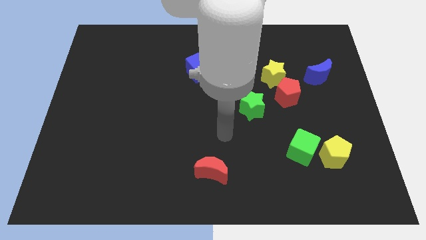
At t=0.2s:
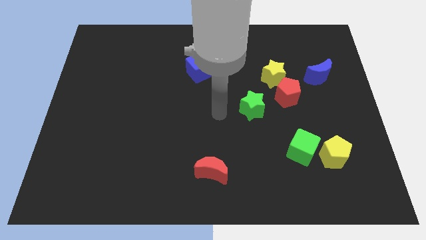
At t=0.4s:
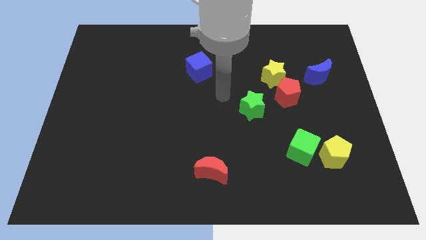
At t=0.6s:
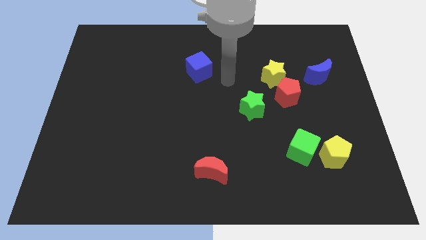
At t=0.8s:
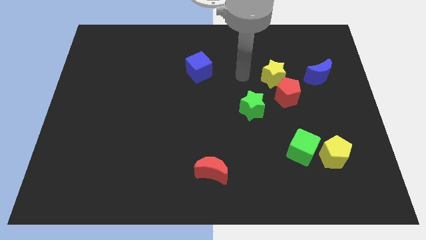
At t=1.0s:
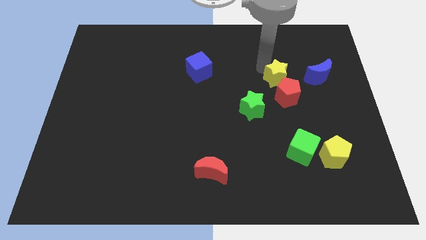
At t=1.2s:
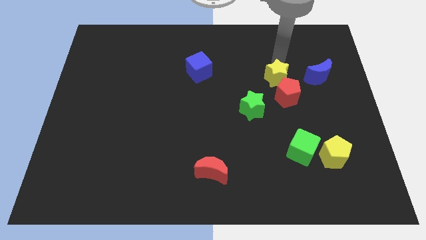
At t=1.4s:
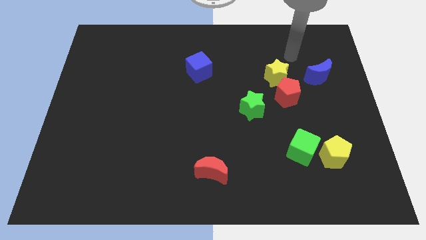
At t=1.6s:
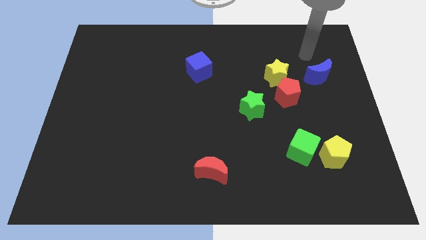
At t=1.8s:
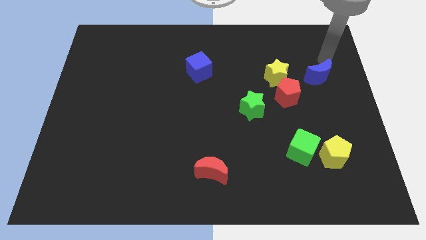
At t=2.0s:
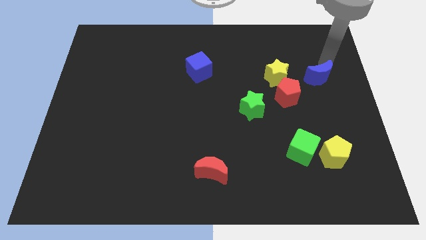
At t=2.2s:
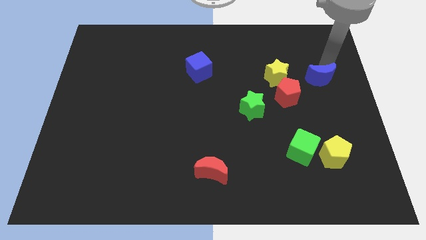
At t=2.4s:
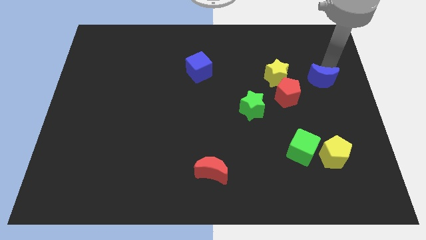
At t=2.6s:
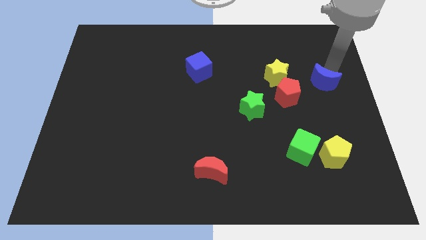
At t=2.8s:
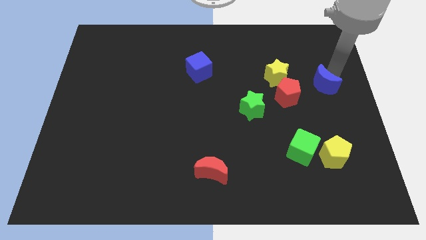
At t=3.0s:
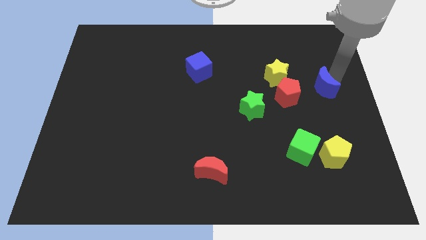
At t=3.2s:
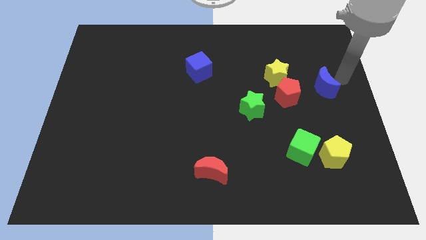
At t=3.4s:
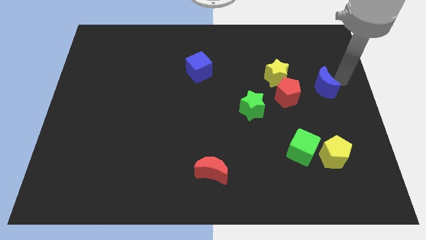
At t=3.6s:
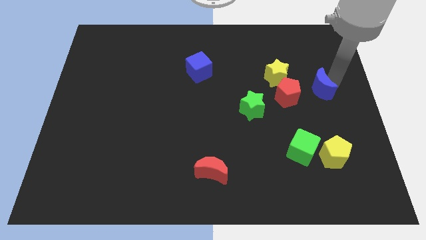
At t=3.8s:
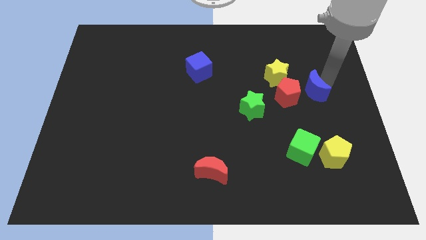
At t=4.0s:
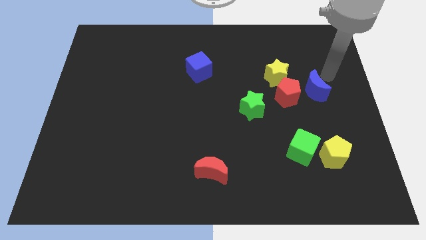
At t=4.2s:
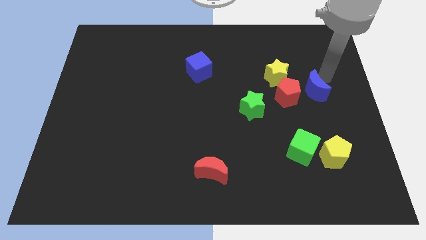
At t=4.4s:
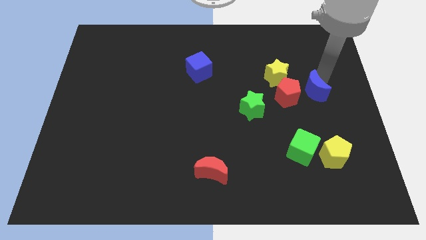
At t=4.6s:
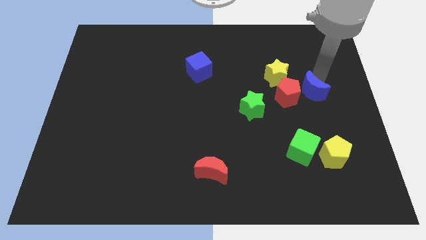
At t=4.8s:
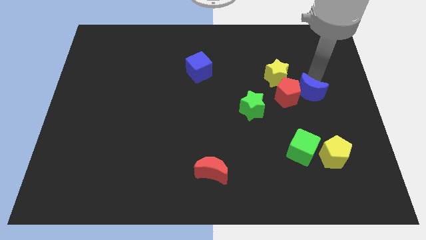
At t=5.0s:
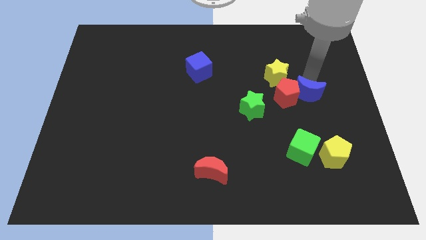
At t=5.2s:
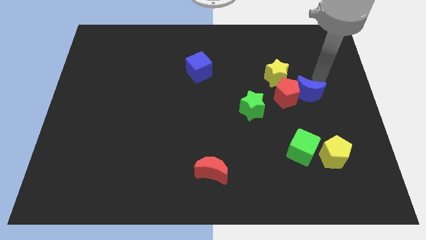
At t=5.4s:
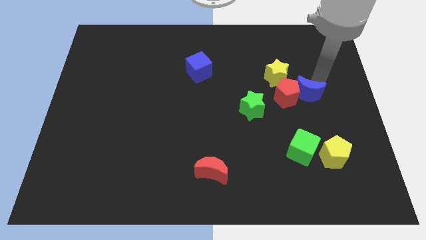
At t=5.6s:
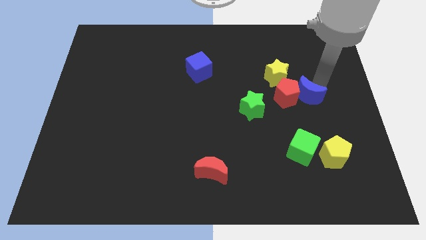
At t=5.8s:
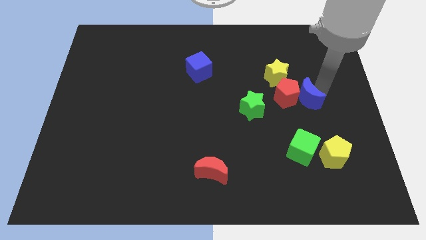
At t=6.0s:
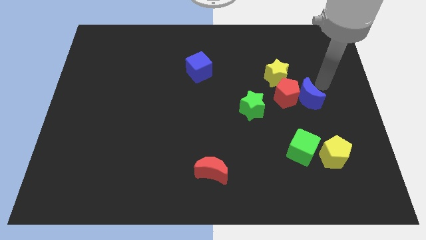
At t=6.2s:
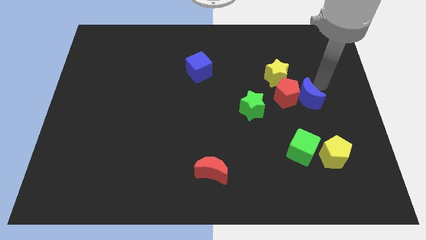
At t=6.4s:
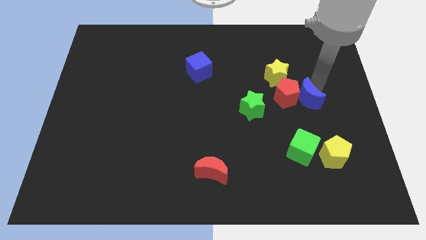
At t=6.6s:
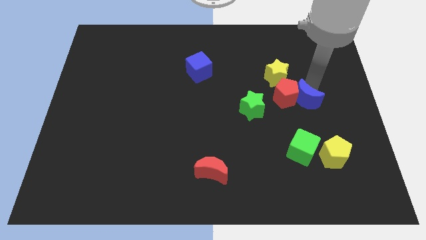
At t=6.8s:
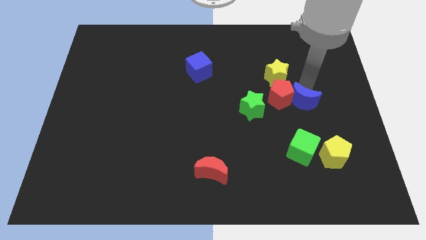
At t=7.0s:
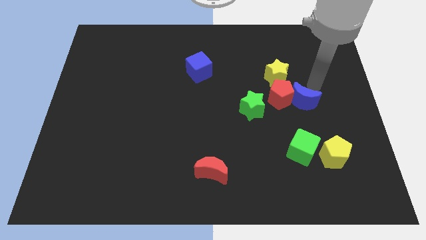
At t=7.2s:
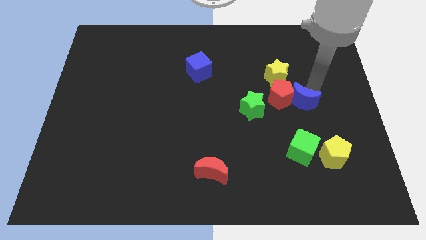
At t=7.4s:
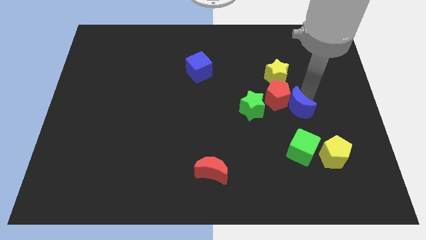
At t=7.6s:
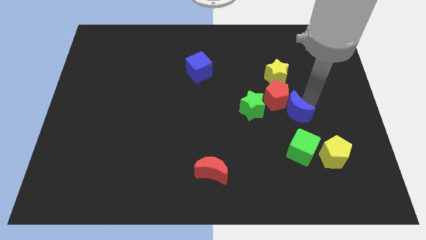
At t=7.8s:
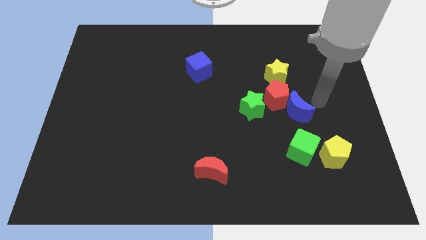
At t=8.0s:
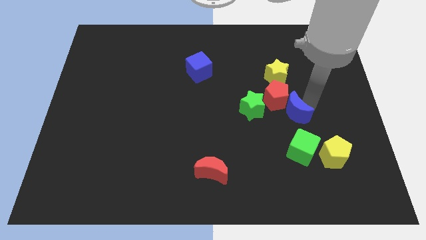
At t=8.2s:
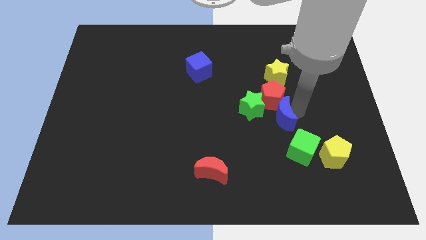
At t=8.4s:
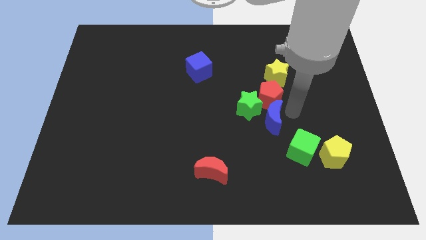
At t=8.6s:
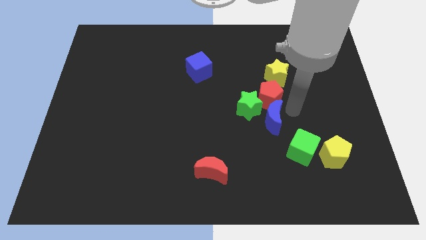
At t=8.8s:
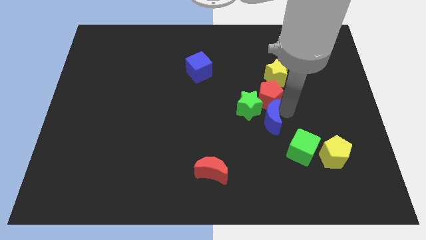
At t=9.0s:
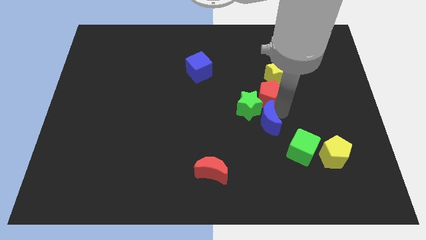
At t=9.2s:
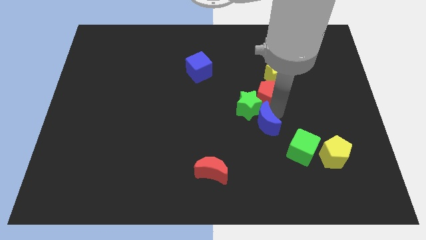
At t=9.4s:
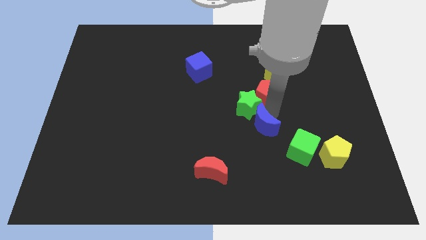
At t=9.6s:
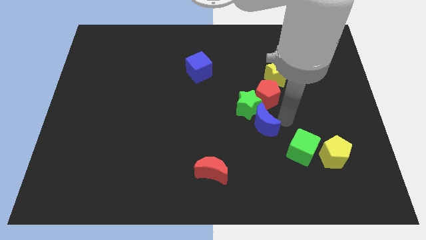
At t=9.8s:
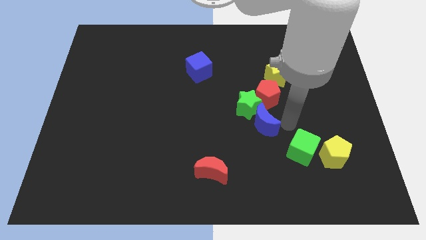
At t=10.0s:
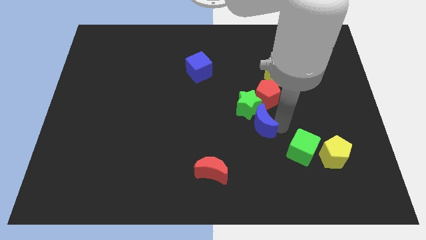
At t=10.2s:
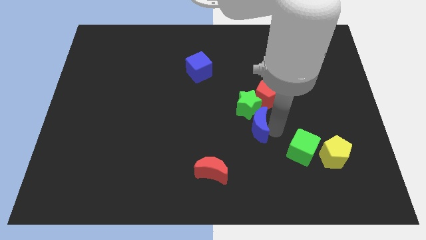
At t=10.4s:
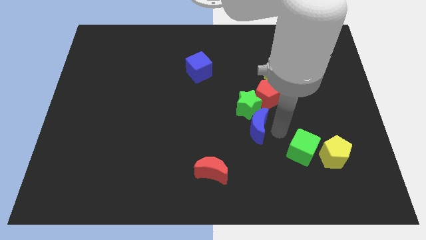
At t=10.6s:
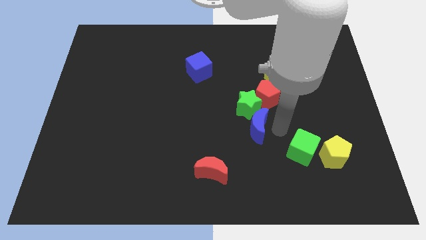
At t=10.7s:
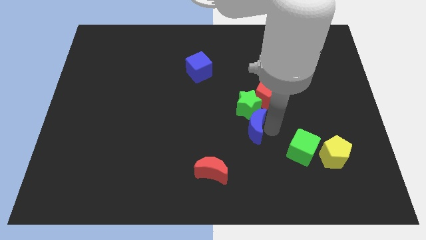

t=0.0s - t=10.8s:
put the blue moon diagonally down and to the left of the green star

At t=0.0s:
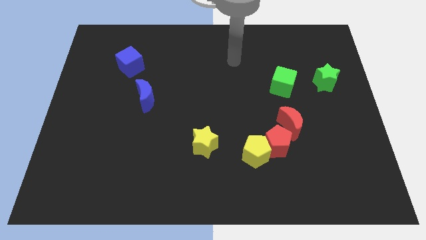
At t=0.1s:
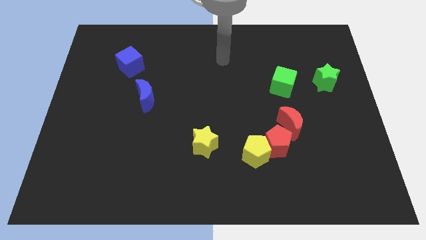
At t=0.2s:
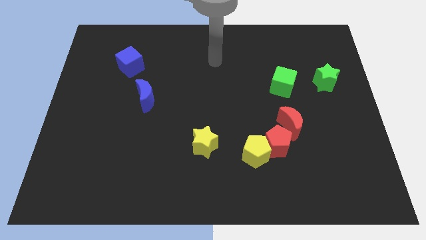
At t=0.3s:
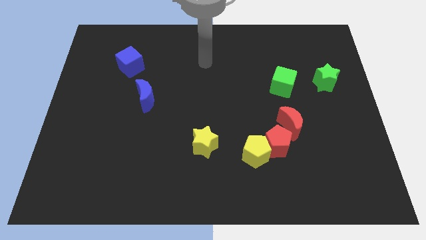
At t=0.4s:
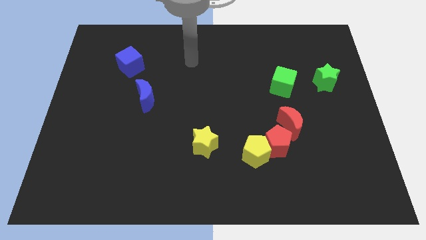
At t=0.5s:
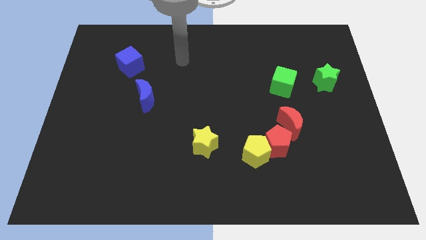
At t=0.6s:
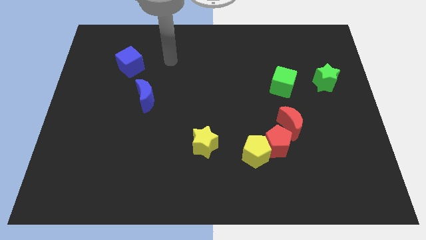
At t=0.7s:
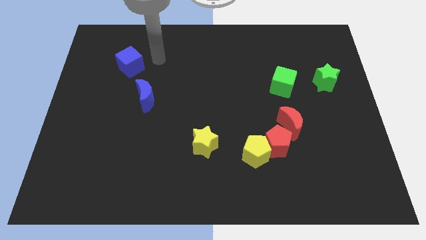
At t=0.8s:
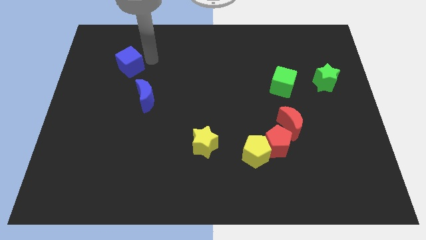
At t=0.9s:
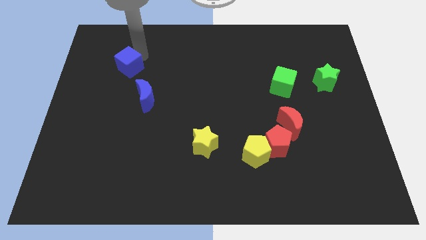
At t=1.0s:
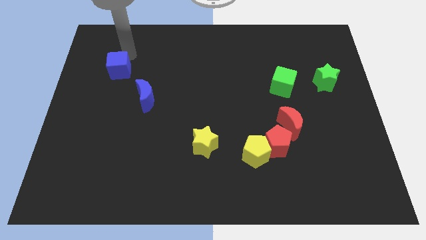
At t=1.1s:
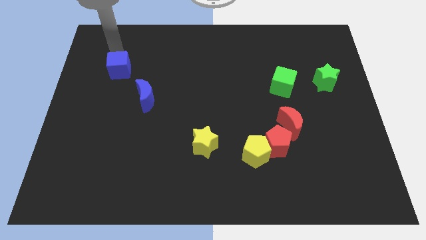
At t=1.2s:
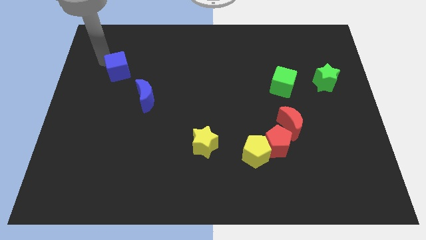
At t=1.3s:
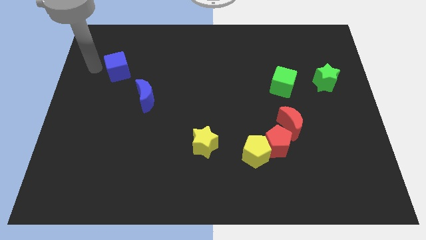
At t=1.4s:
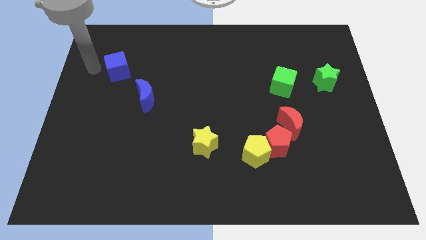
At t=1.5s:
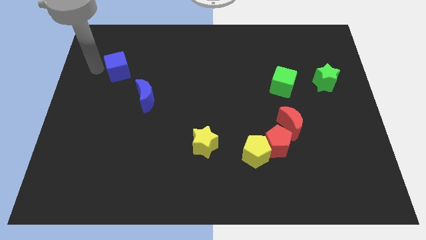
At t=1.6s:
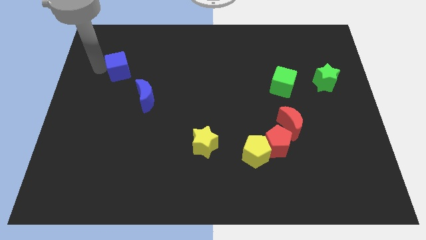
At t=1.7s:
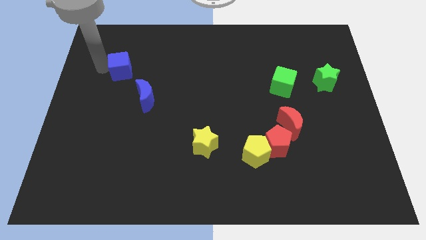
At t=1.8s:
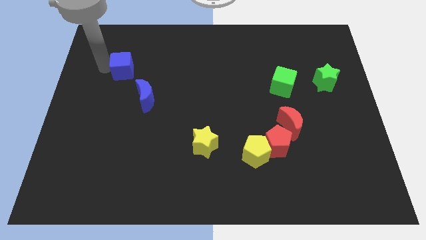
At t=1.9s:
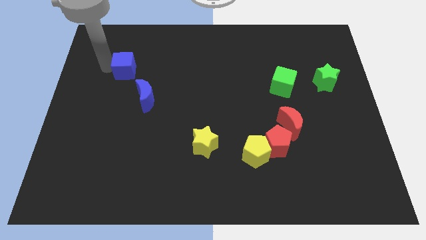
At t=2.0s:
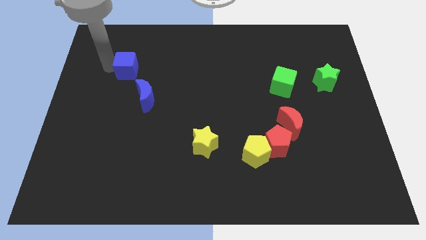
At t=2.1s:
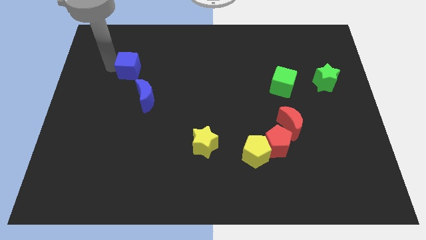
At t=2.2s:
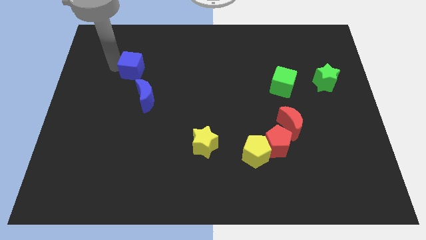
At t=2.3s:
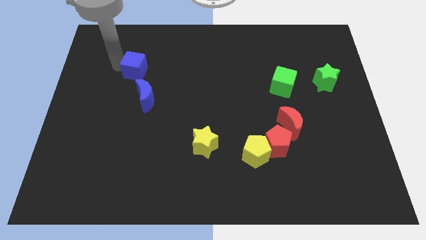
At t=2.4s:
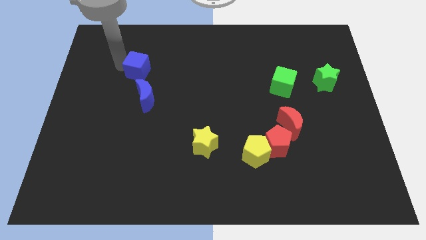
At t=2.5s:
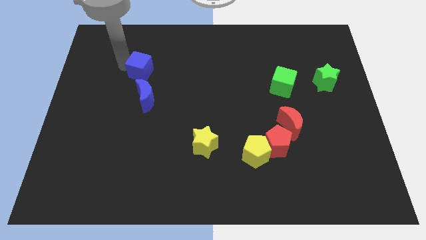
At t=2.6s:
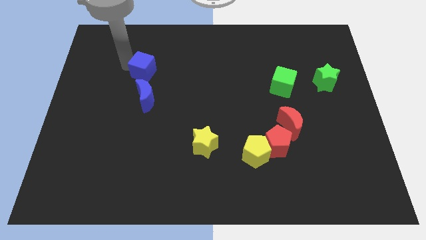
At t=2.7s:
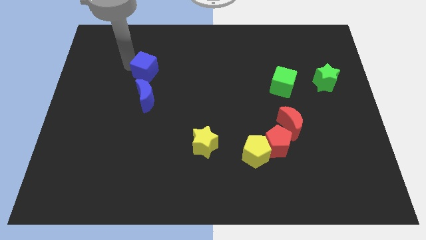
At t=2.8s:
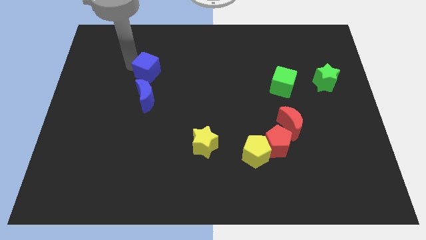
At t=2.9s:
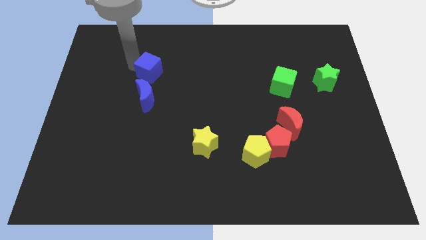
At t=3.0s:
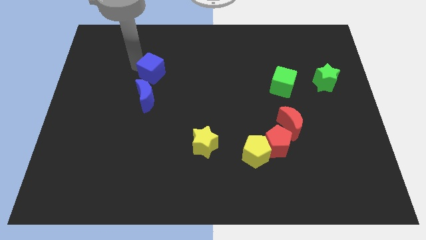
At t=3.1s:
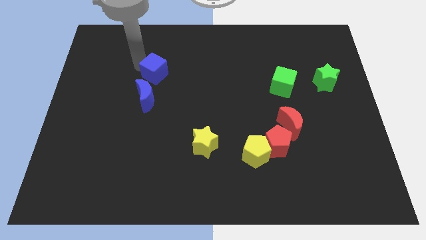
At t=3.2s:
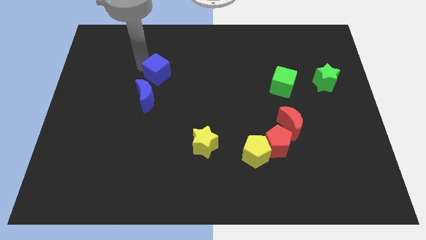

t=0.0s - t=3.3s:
put the blue cube diagonally up and to the right of the blue moon
